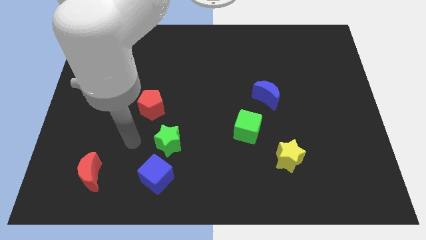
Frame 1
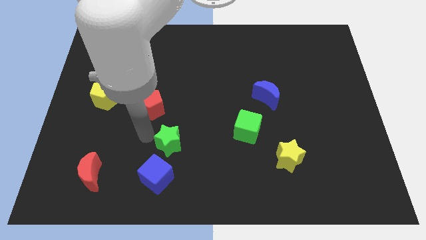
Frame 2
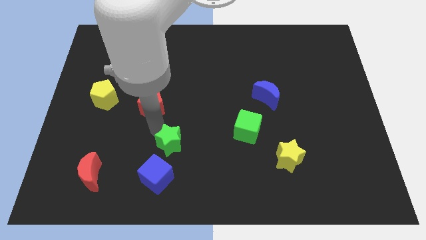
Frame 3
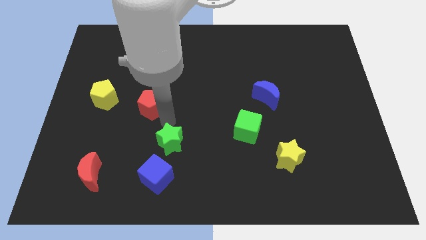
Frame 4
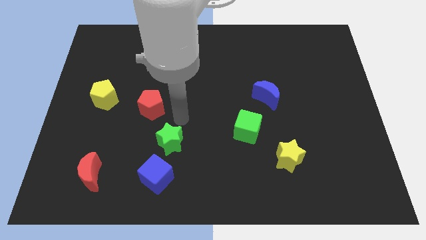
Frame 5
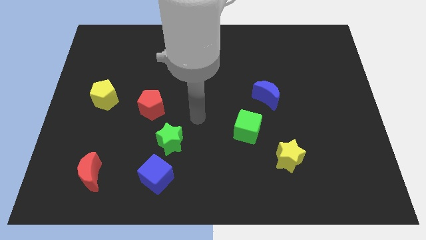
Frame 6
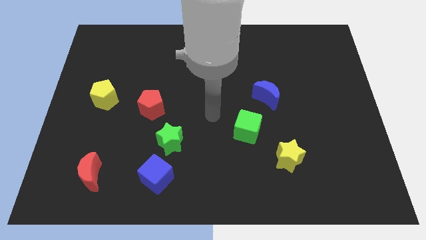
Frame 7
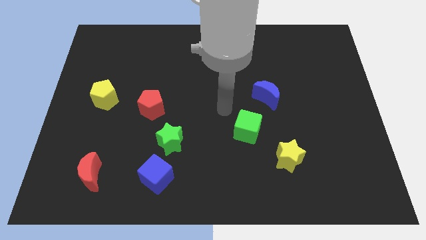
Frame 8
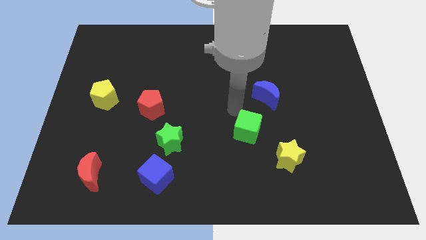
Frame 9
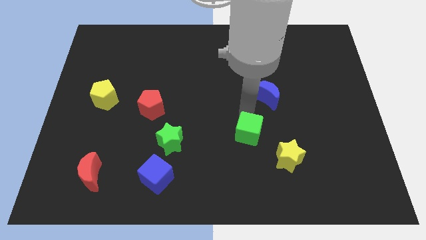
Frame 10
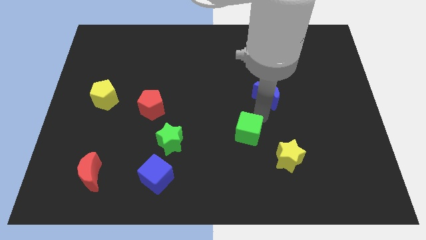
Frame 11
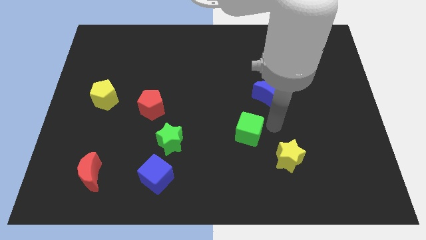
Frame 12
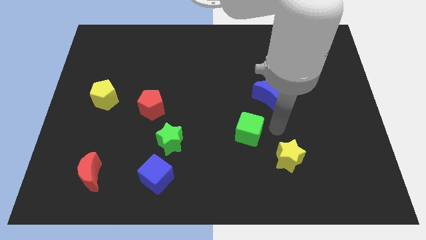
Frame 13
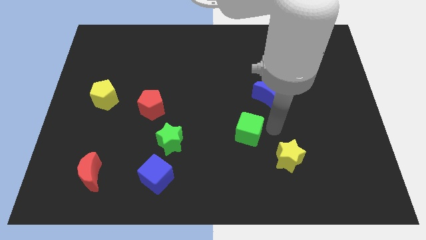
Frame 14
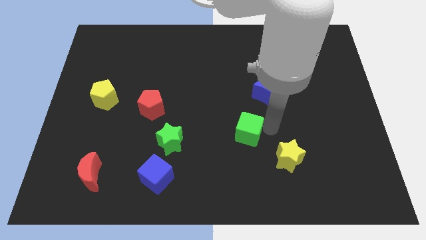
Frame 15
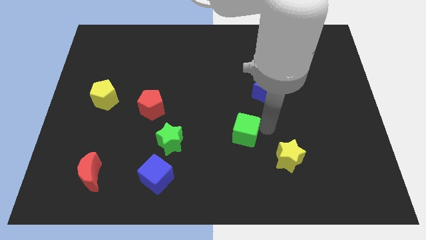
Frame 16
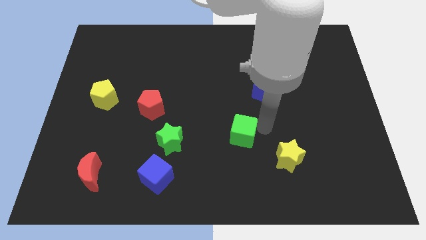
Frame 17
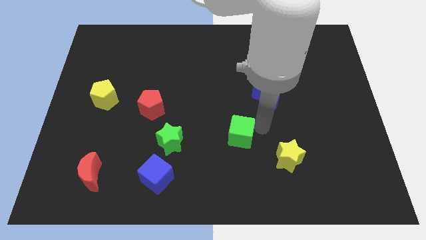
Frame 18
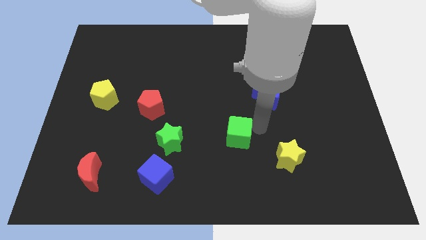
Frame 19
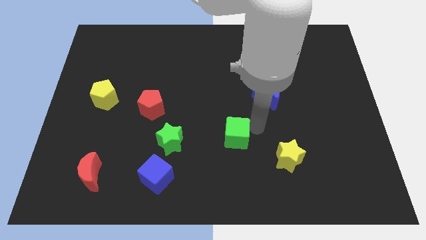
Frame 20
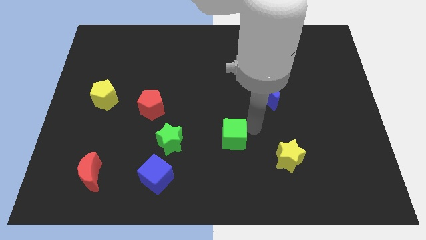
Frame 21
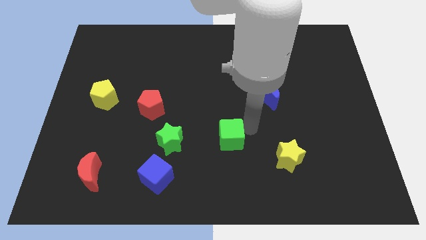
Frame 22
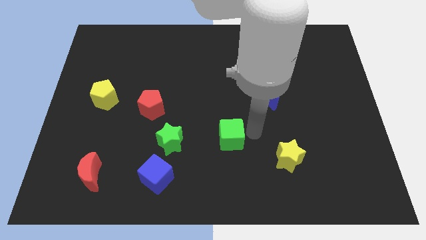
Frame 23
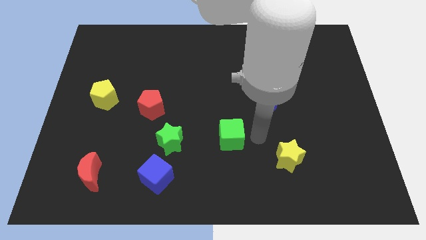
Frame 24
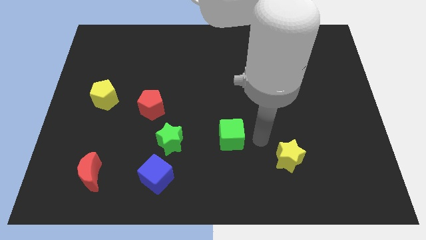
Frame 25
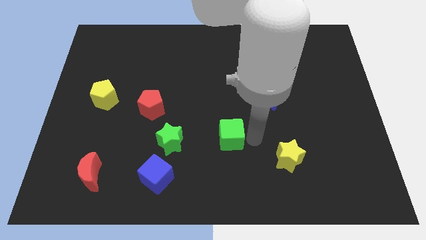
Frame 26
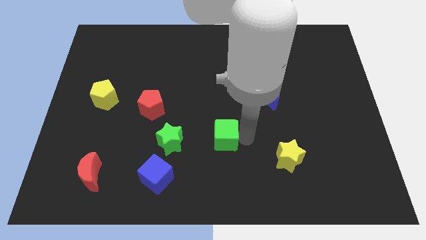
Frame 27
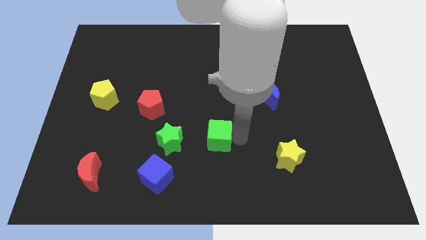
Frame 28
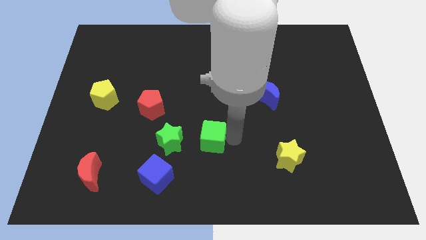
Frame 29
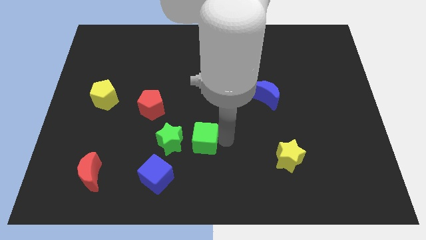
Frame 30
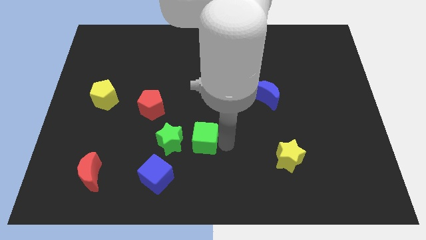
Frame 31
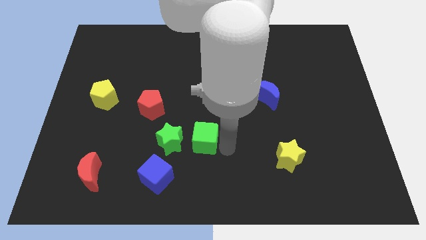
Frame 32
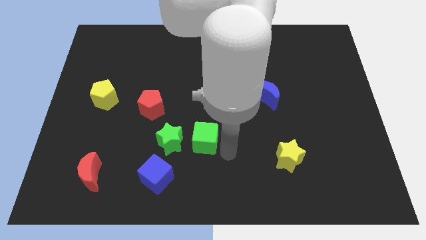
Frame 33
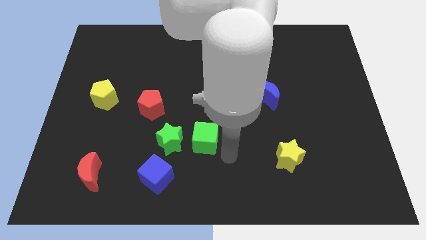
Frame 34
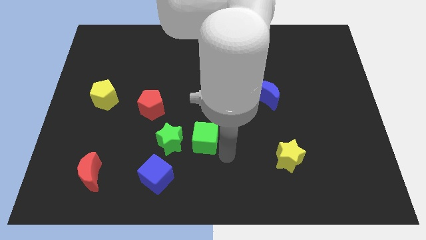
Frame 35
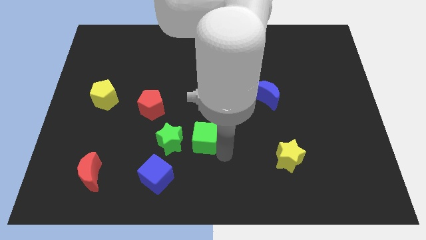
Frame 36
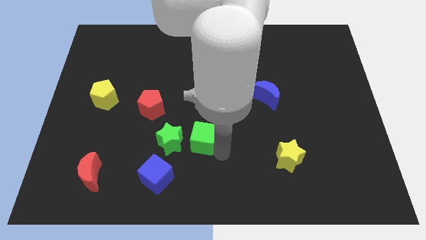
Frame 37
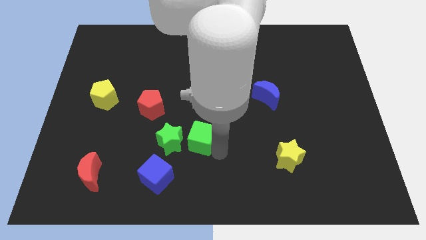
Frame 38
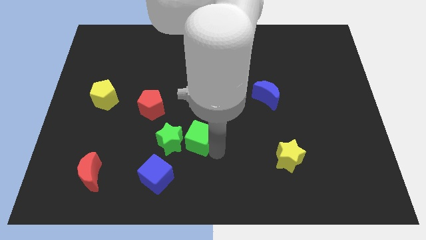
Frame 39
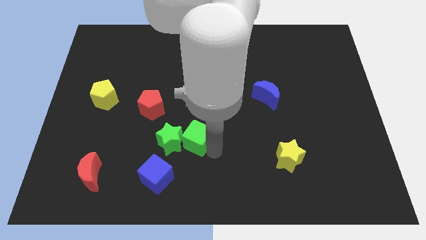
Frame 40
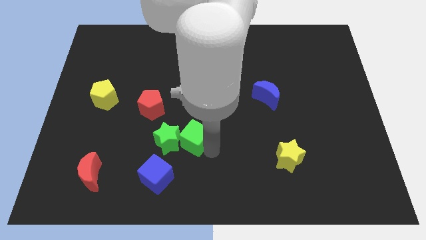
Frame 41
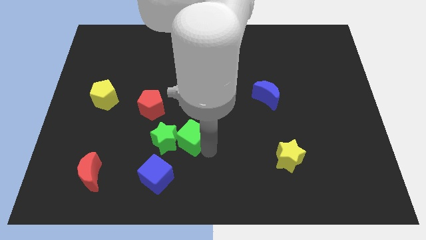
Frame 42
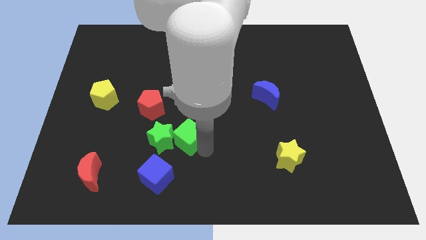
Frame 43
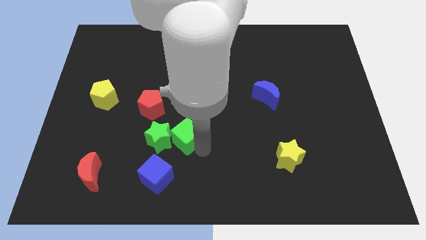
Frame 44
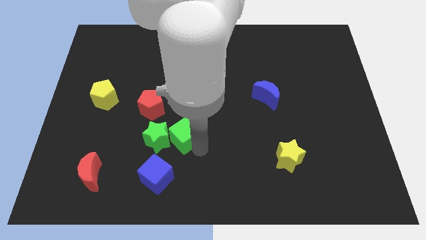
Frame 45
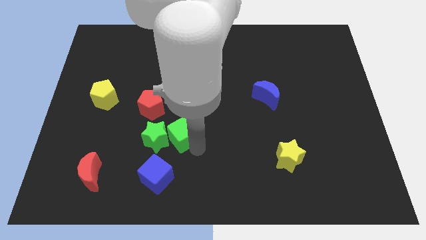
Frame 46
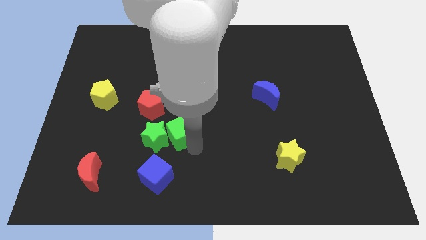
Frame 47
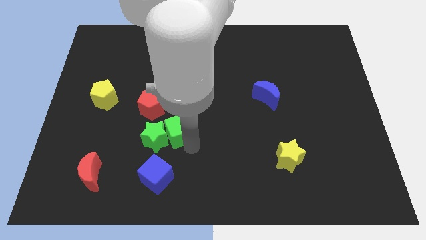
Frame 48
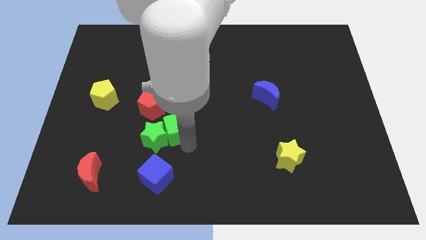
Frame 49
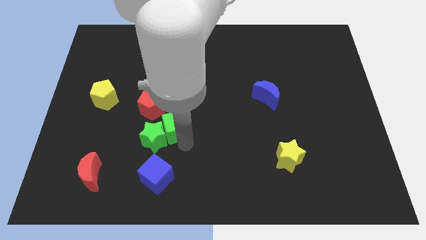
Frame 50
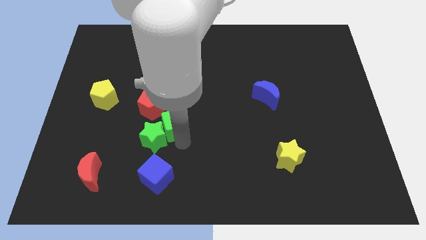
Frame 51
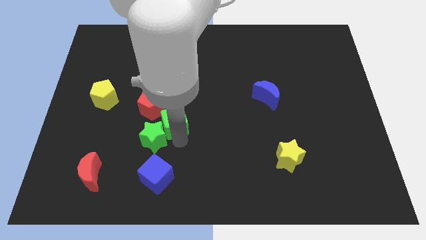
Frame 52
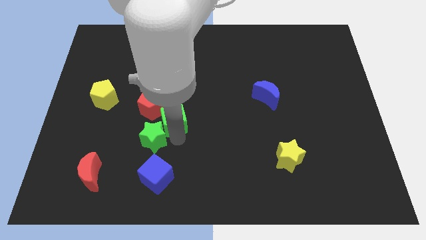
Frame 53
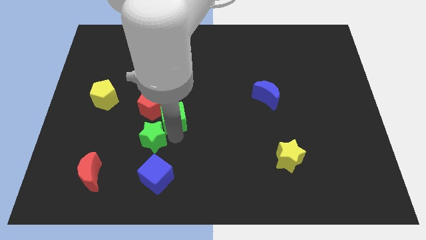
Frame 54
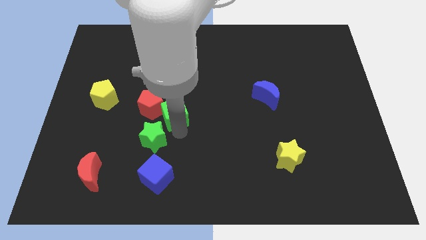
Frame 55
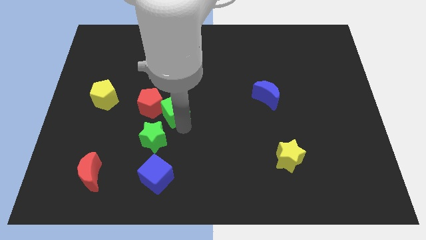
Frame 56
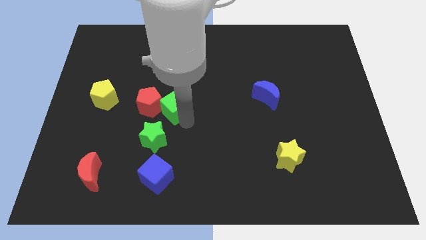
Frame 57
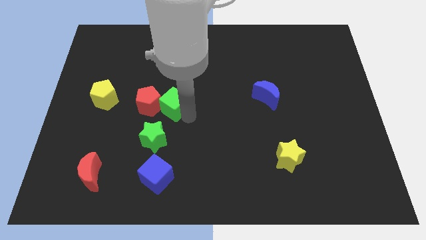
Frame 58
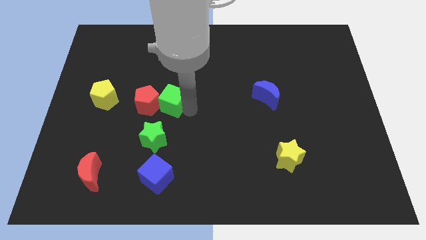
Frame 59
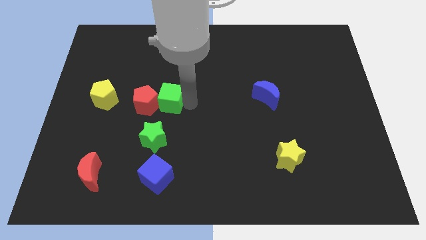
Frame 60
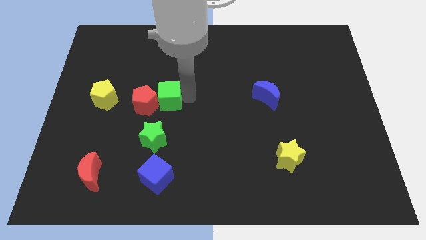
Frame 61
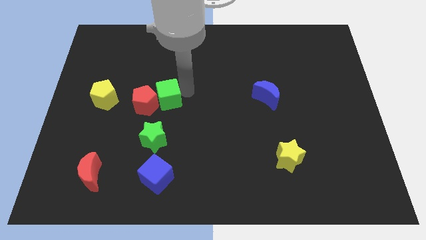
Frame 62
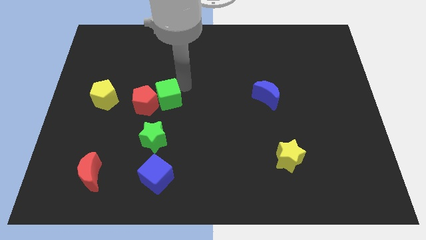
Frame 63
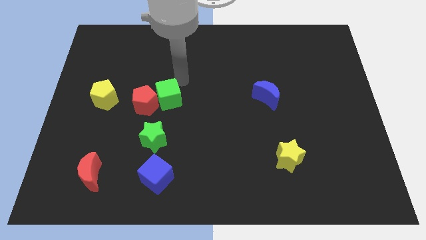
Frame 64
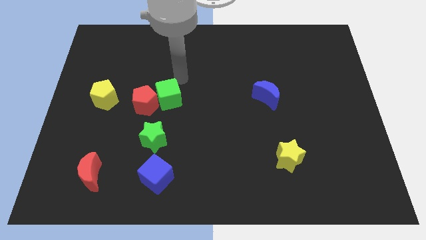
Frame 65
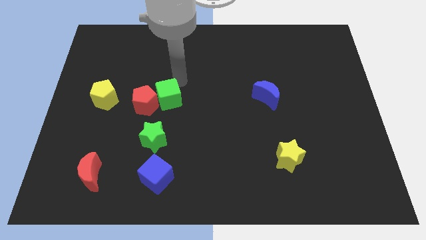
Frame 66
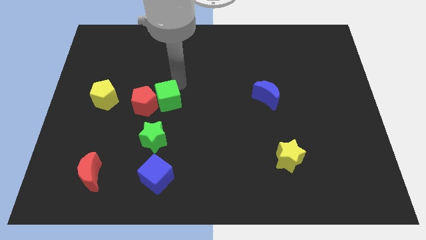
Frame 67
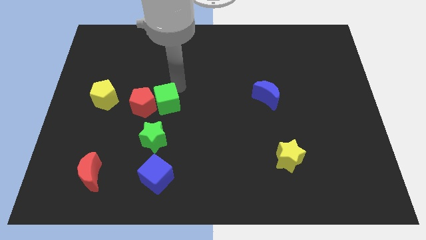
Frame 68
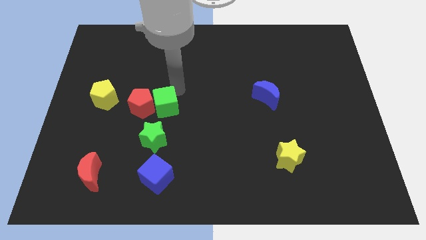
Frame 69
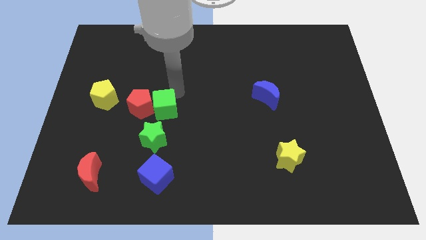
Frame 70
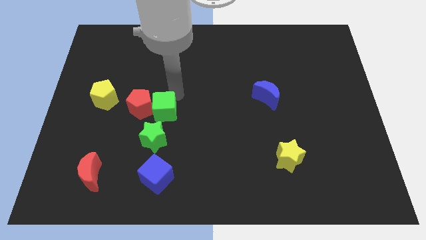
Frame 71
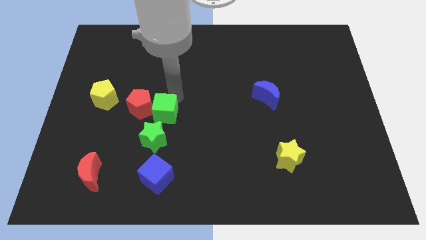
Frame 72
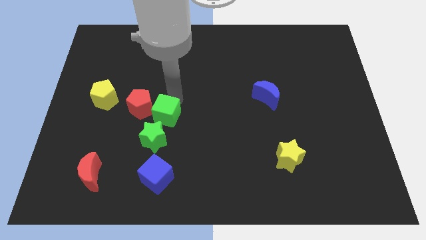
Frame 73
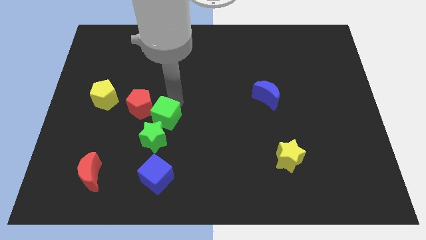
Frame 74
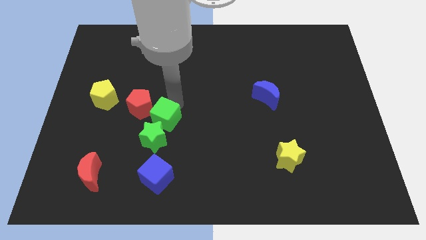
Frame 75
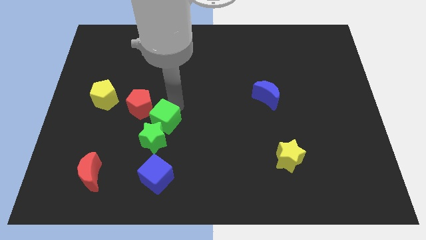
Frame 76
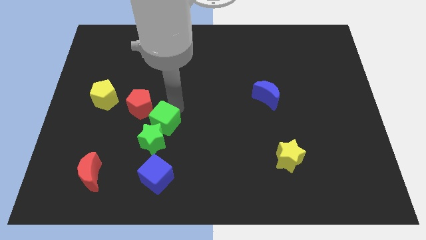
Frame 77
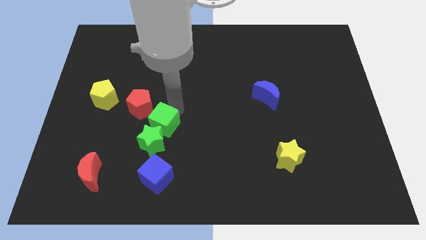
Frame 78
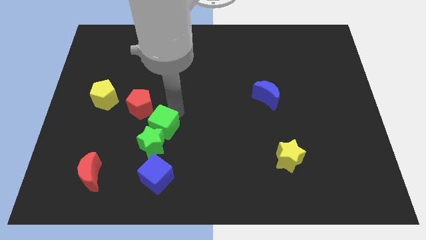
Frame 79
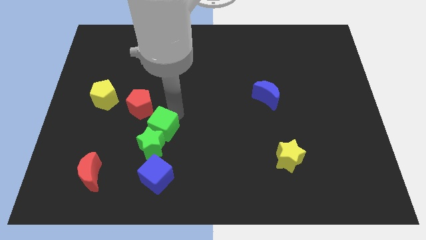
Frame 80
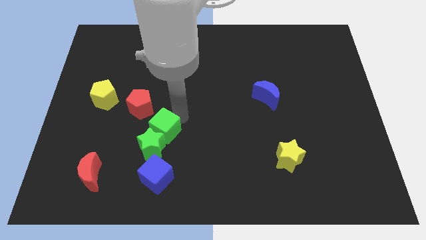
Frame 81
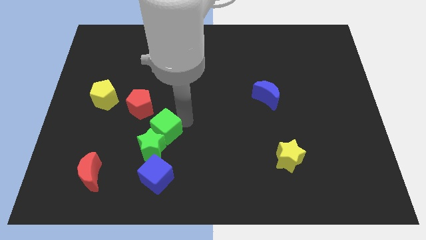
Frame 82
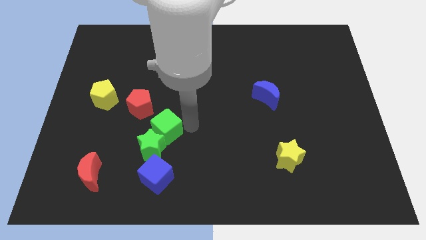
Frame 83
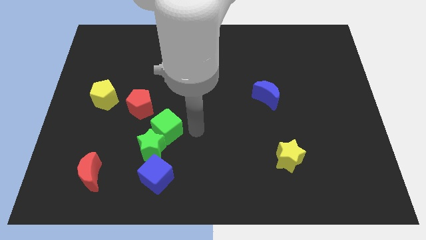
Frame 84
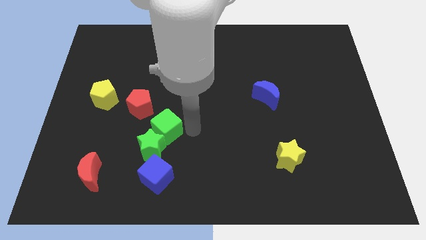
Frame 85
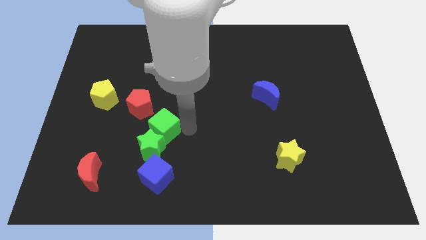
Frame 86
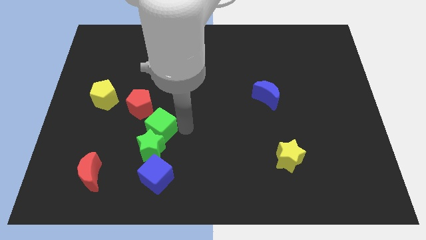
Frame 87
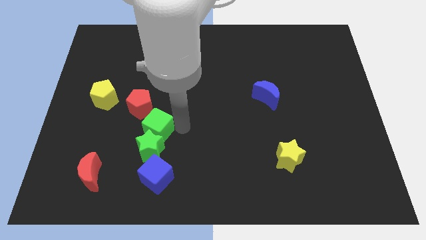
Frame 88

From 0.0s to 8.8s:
slide the green cube to the left

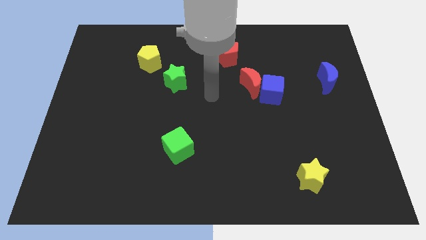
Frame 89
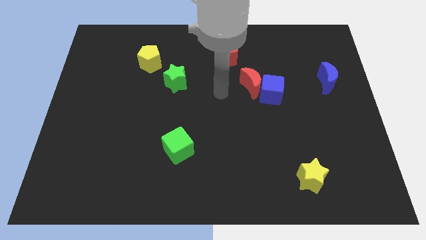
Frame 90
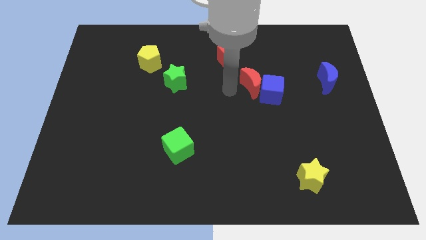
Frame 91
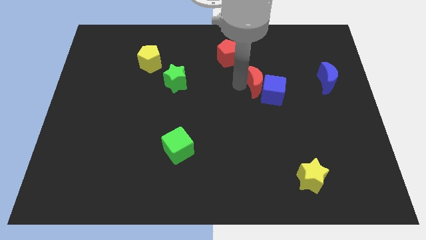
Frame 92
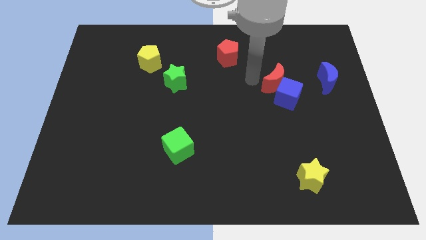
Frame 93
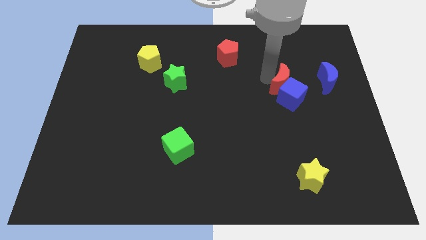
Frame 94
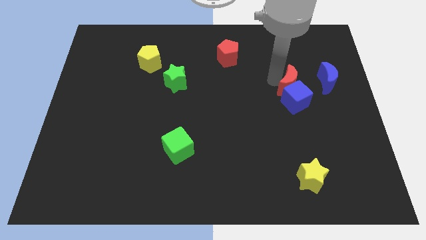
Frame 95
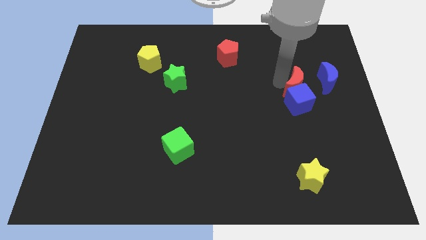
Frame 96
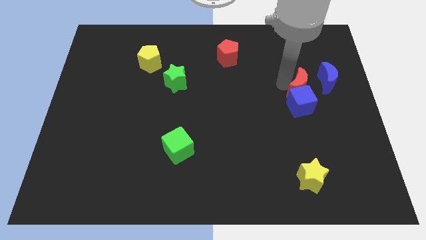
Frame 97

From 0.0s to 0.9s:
slightly push the blue cube diagonally down and to the right
